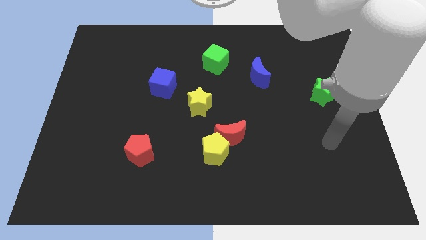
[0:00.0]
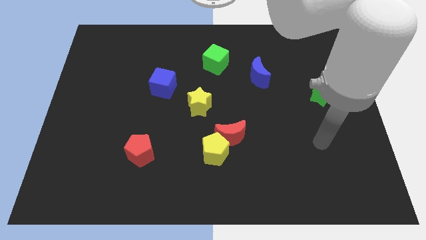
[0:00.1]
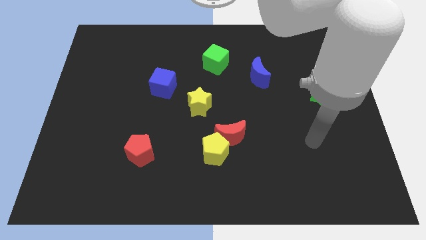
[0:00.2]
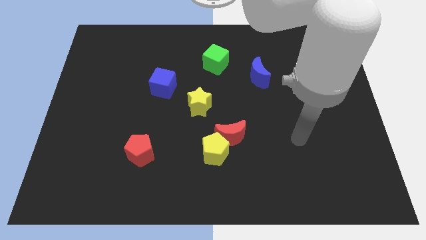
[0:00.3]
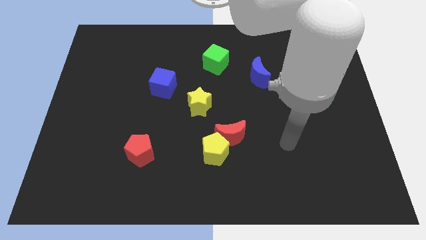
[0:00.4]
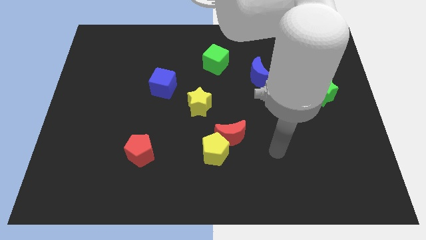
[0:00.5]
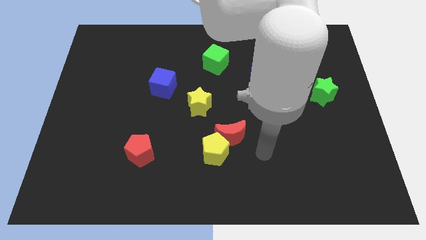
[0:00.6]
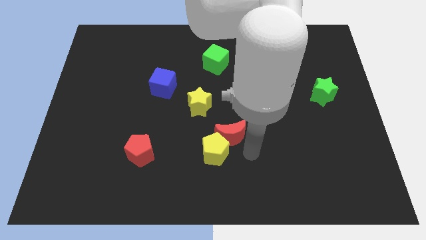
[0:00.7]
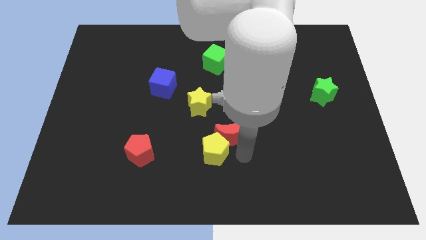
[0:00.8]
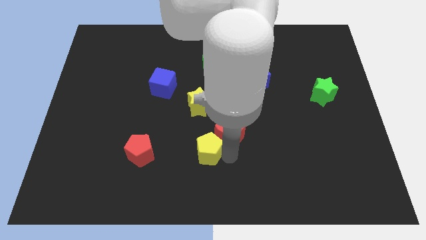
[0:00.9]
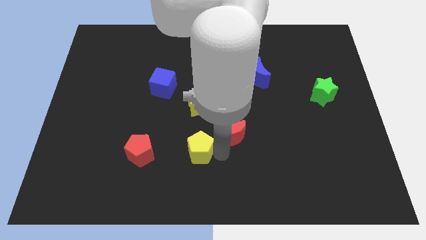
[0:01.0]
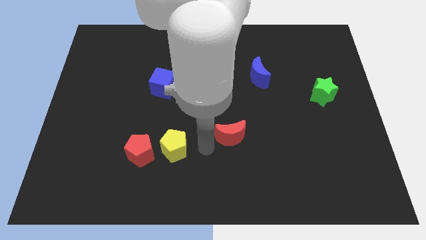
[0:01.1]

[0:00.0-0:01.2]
move the red moon away from the yellow pentagon

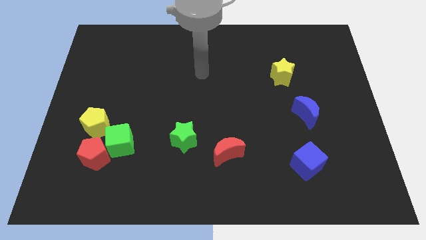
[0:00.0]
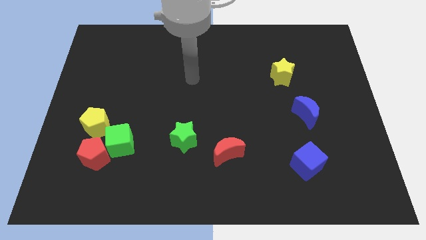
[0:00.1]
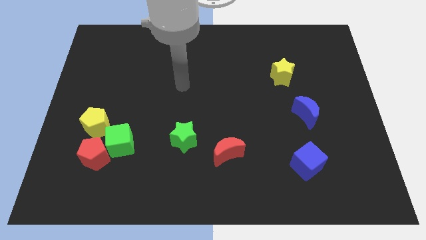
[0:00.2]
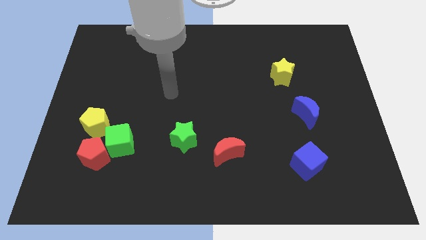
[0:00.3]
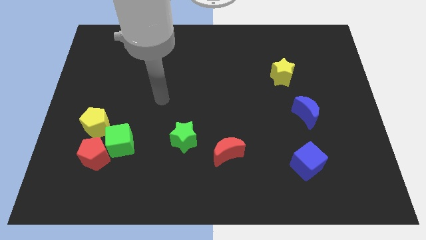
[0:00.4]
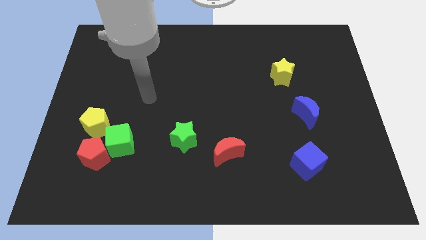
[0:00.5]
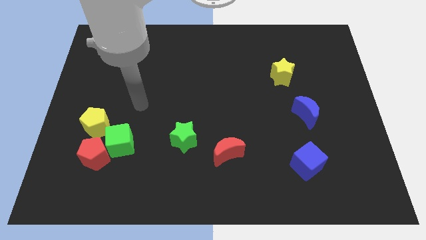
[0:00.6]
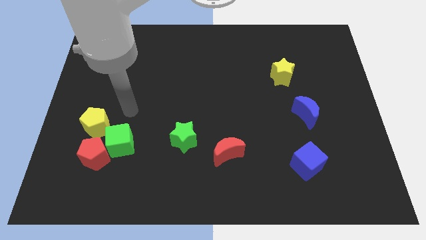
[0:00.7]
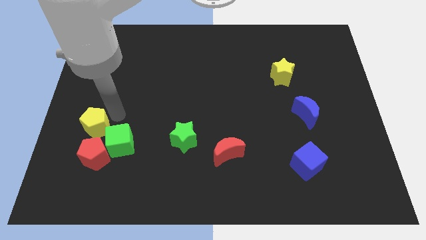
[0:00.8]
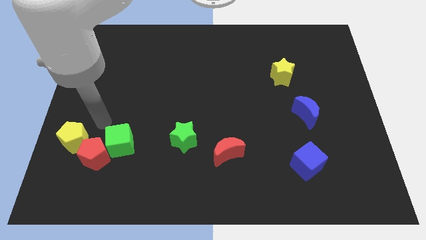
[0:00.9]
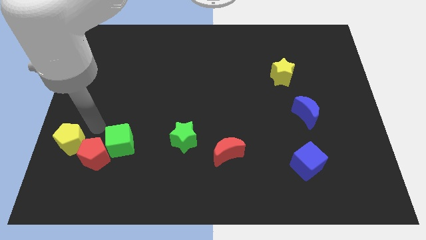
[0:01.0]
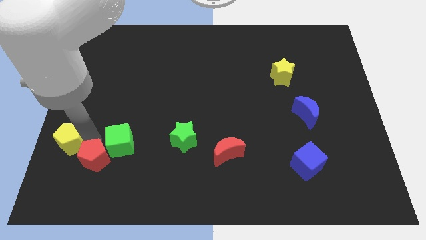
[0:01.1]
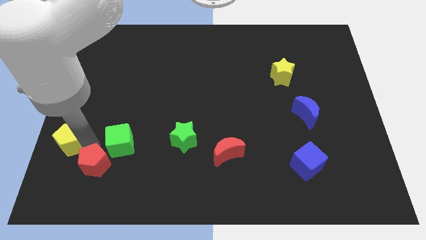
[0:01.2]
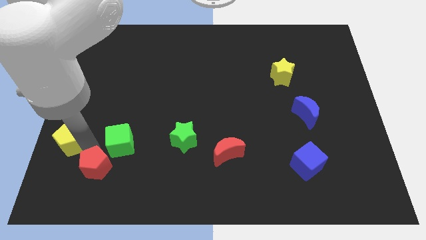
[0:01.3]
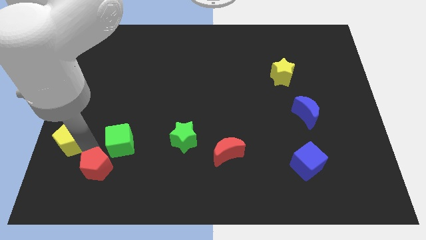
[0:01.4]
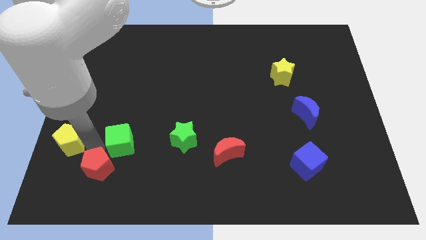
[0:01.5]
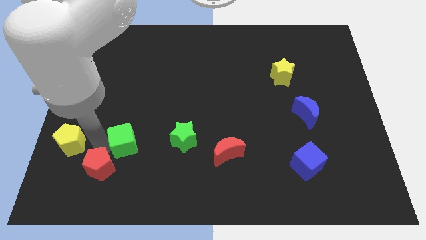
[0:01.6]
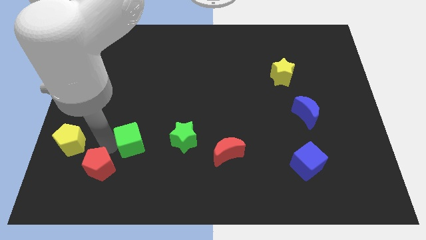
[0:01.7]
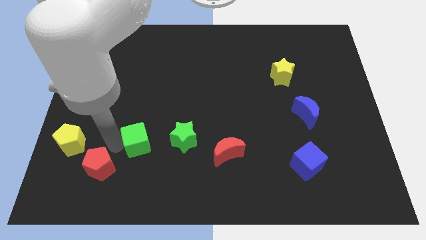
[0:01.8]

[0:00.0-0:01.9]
pull the green cube apart from the red pentagon and yellow pentagon

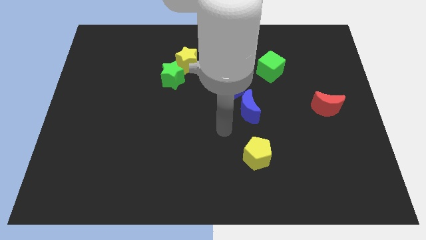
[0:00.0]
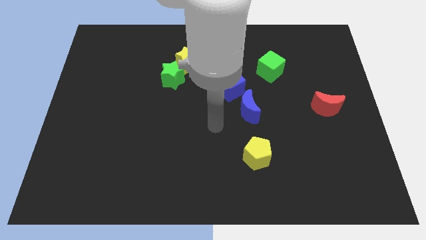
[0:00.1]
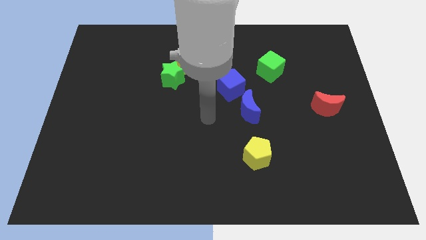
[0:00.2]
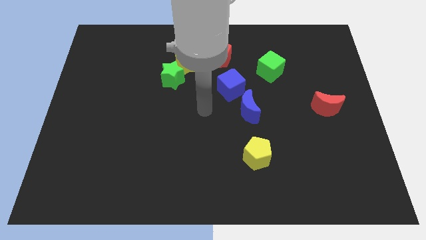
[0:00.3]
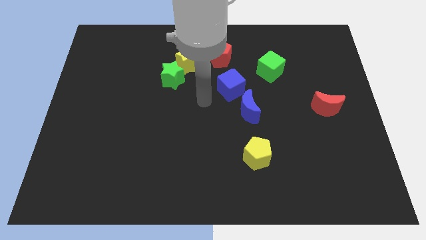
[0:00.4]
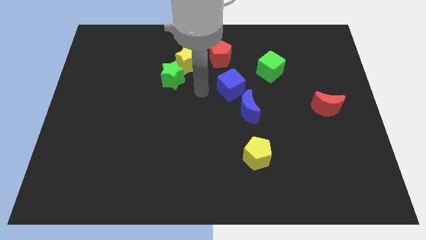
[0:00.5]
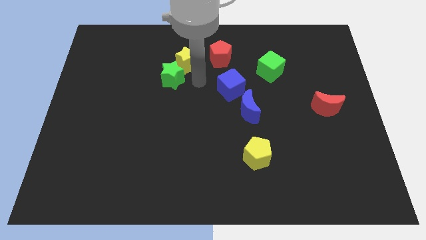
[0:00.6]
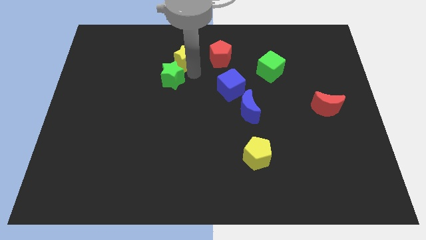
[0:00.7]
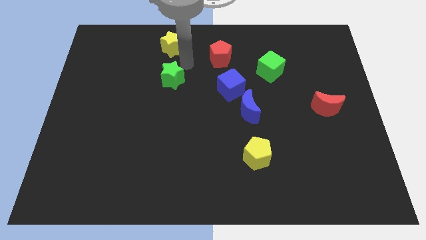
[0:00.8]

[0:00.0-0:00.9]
separate the green star from the yellow star

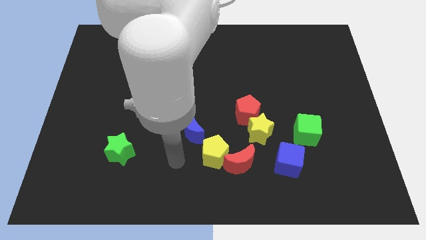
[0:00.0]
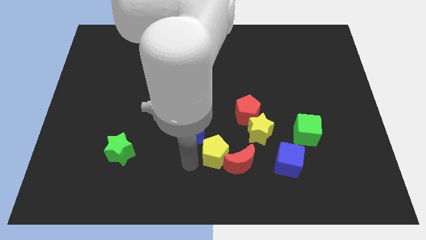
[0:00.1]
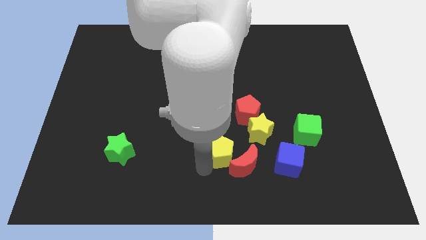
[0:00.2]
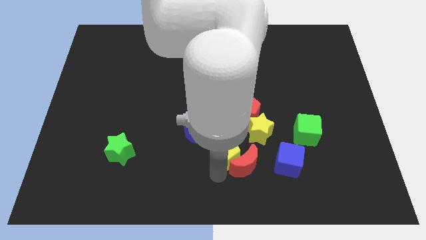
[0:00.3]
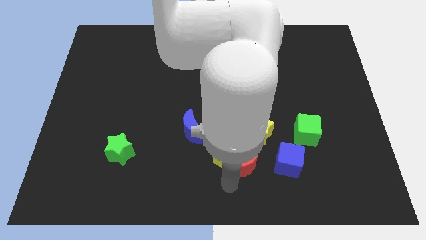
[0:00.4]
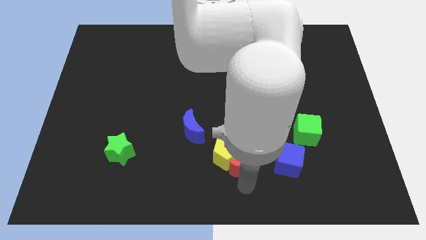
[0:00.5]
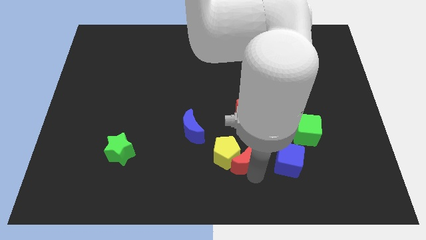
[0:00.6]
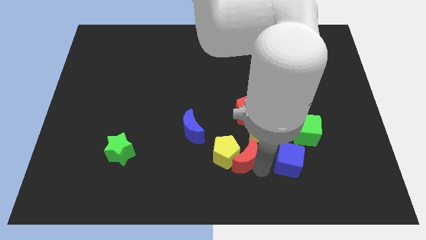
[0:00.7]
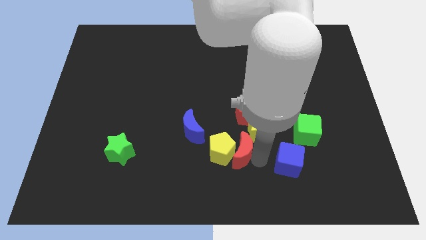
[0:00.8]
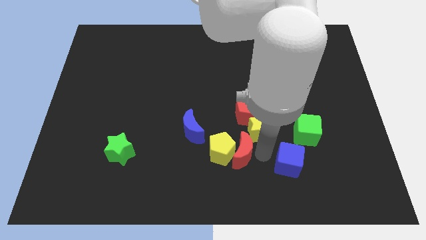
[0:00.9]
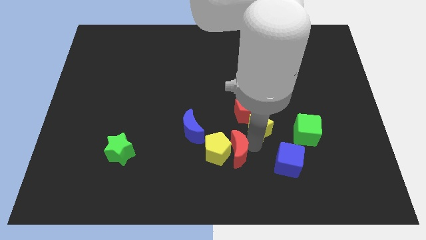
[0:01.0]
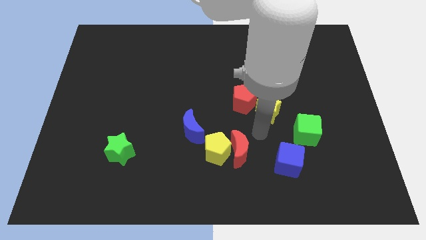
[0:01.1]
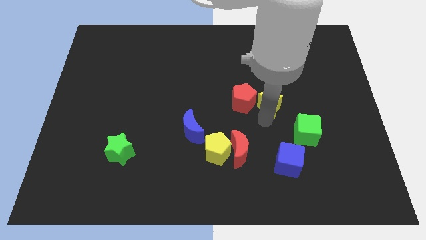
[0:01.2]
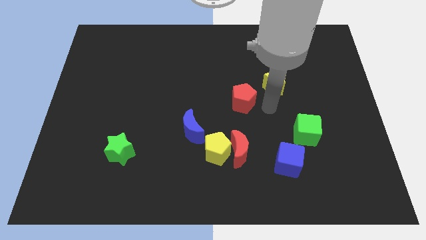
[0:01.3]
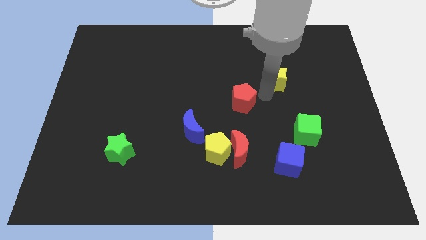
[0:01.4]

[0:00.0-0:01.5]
separate the red pentagon from the yellow star

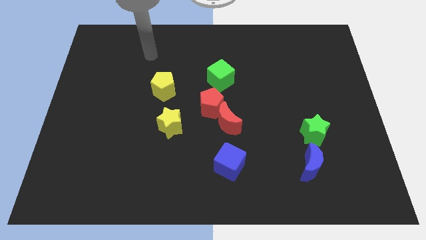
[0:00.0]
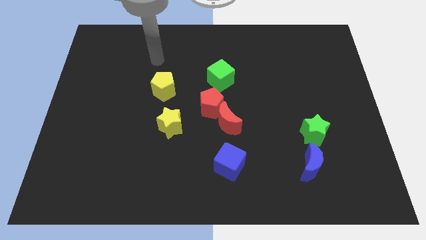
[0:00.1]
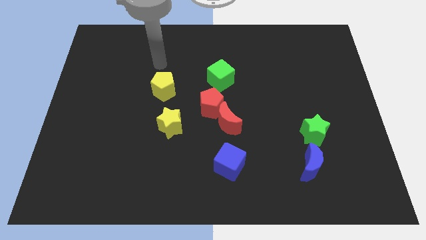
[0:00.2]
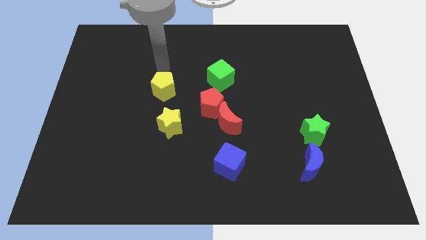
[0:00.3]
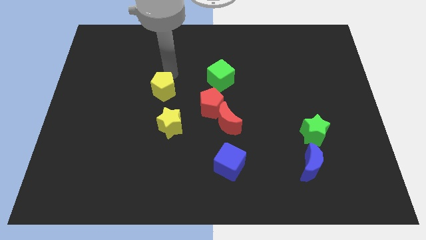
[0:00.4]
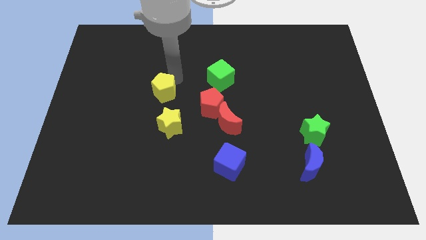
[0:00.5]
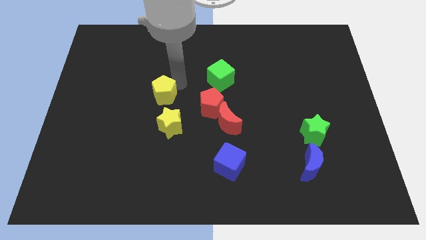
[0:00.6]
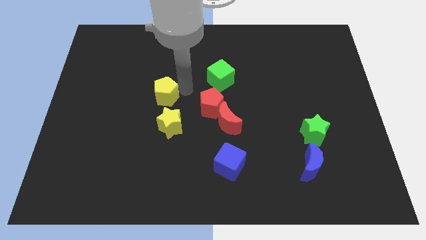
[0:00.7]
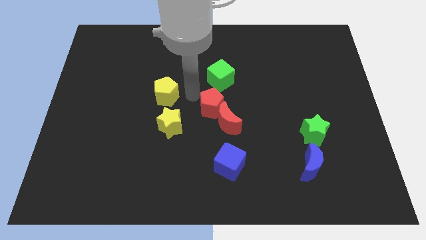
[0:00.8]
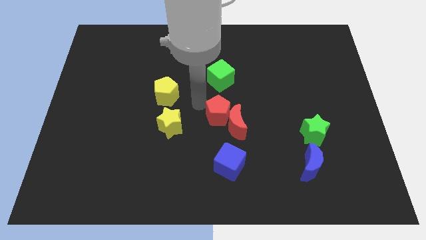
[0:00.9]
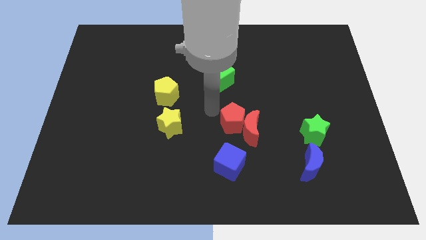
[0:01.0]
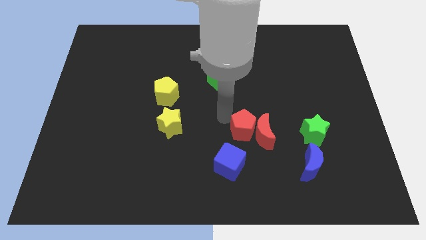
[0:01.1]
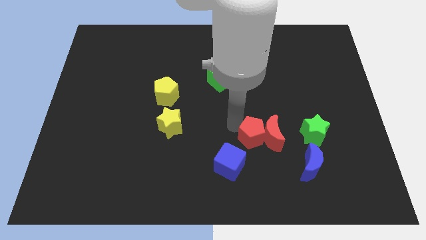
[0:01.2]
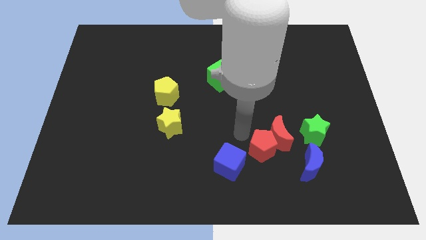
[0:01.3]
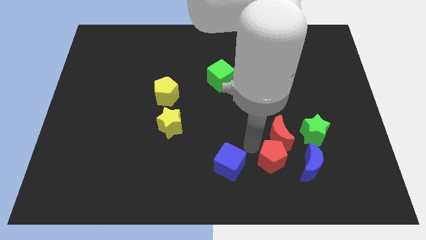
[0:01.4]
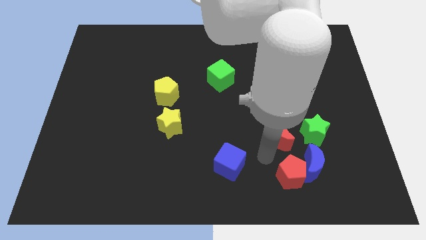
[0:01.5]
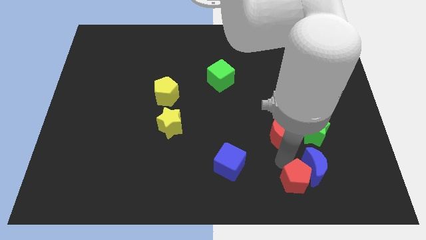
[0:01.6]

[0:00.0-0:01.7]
move the red moon away from the red pentagon

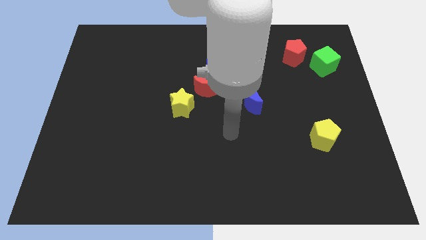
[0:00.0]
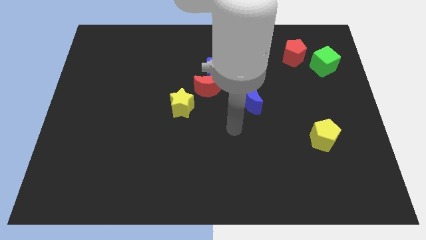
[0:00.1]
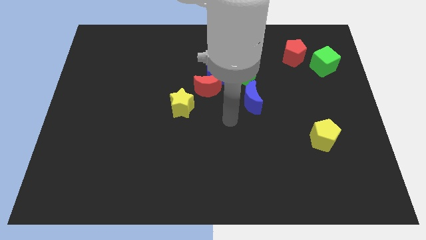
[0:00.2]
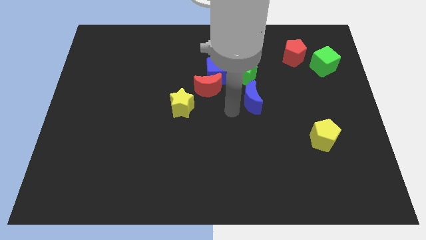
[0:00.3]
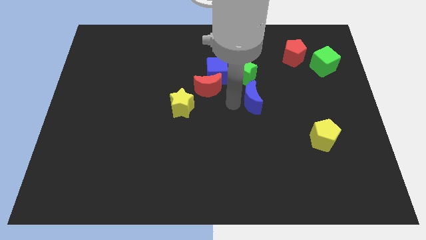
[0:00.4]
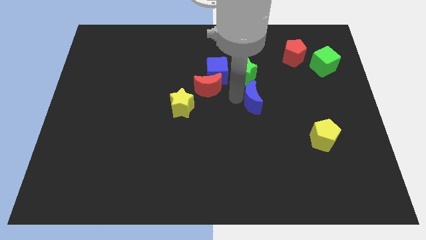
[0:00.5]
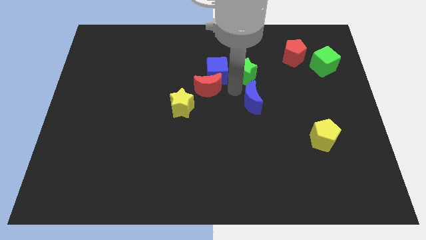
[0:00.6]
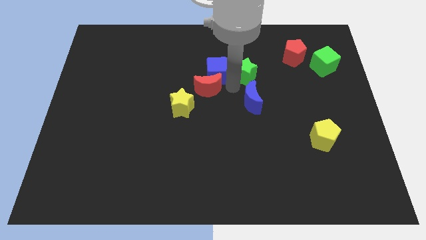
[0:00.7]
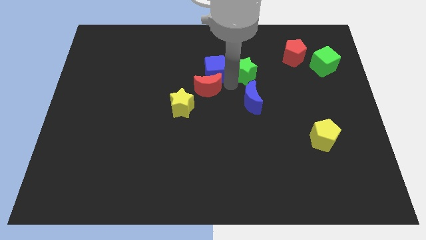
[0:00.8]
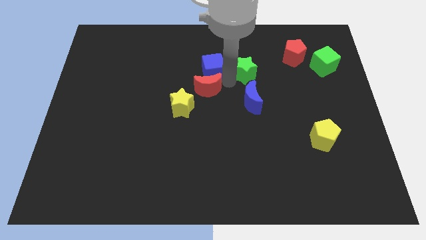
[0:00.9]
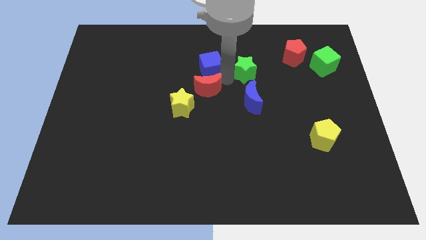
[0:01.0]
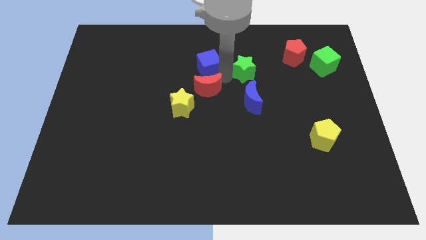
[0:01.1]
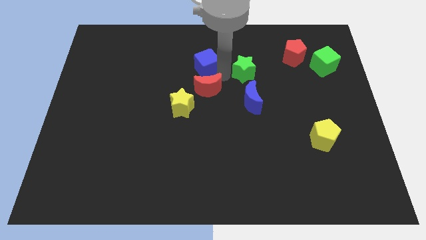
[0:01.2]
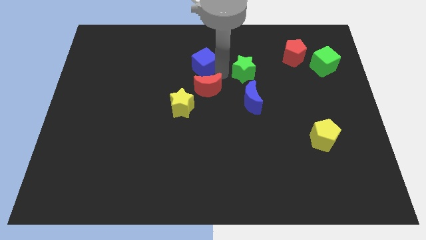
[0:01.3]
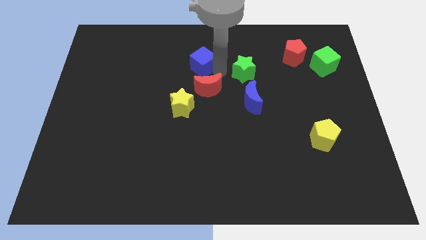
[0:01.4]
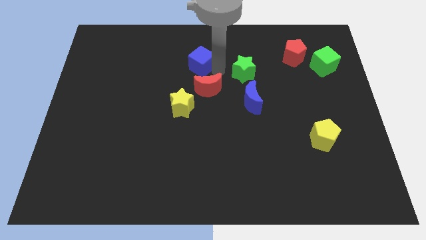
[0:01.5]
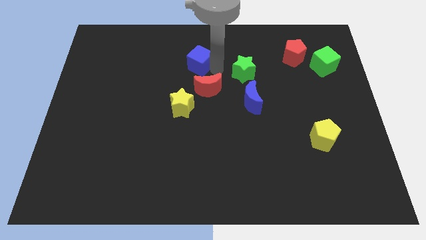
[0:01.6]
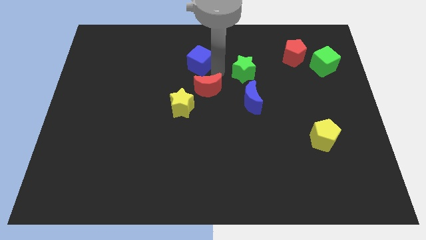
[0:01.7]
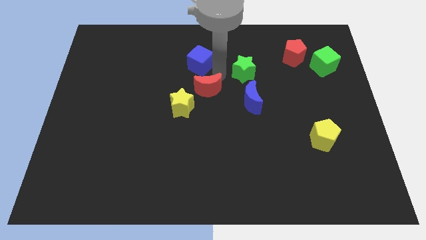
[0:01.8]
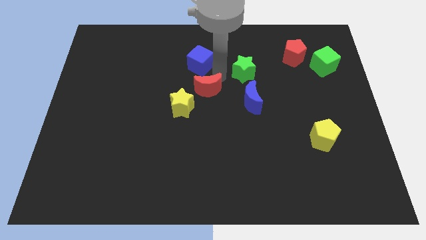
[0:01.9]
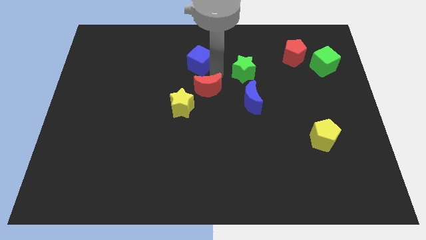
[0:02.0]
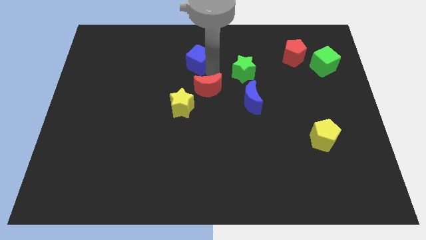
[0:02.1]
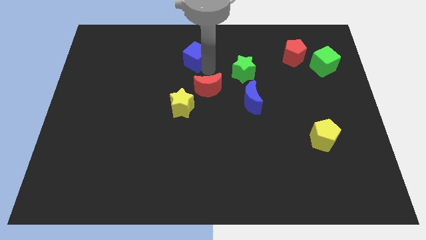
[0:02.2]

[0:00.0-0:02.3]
pull the blue cube apart from the red moon and green star
